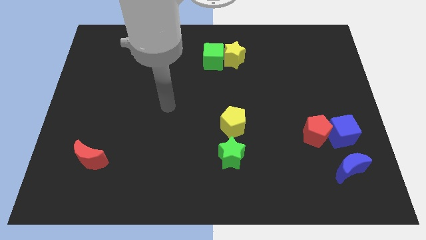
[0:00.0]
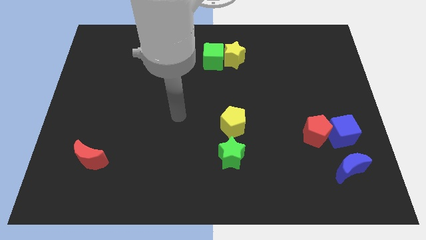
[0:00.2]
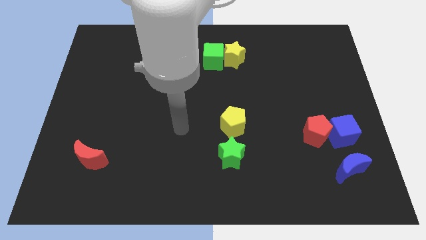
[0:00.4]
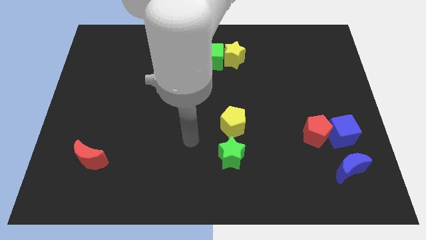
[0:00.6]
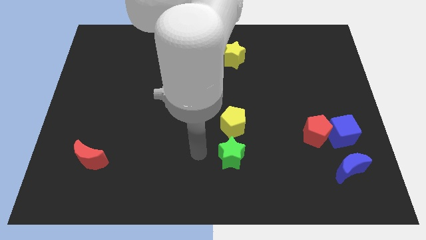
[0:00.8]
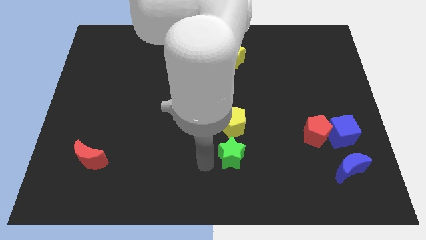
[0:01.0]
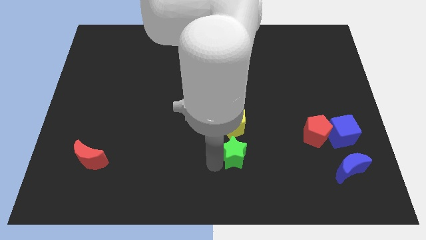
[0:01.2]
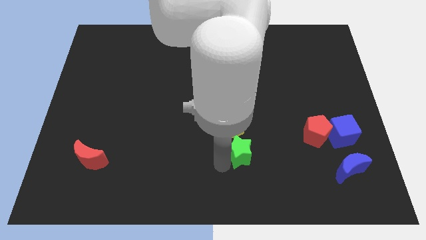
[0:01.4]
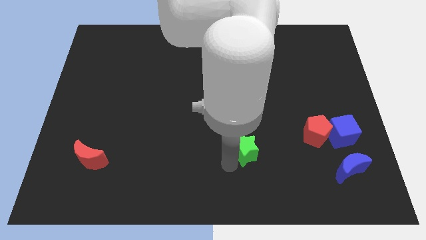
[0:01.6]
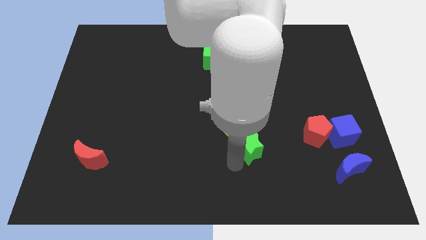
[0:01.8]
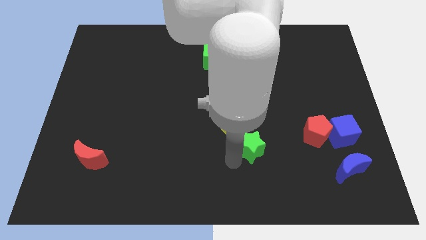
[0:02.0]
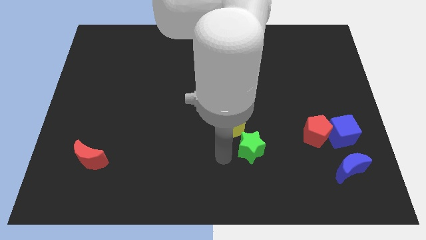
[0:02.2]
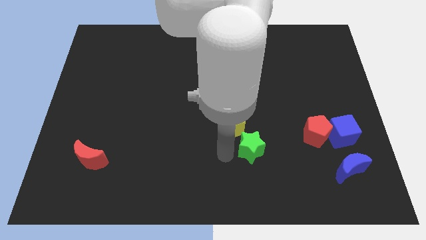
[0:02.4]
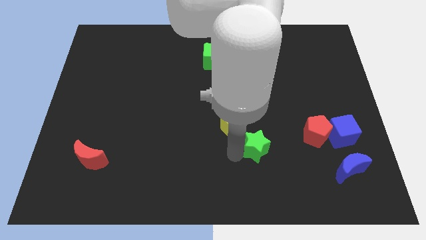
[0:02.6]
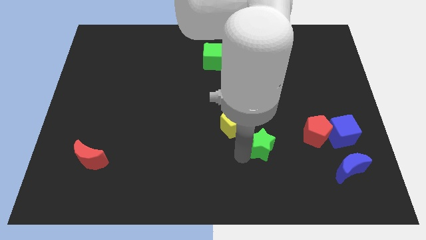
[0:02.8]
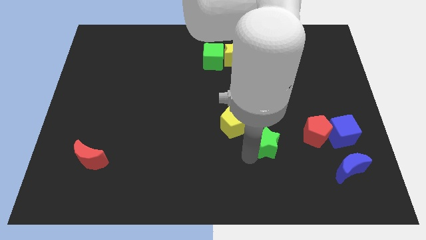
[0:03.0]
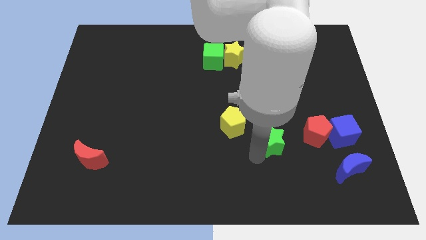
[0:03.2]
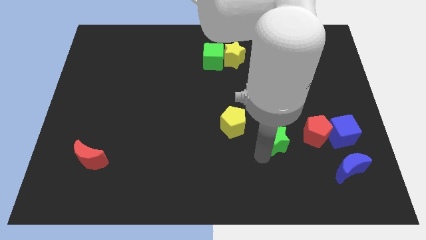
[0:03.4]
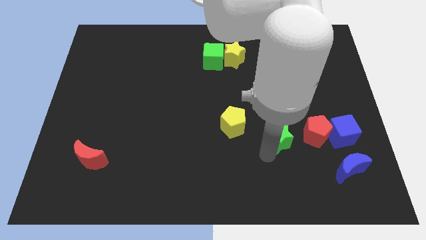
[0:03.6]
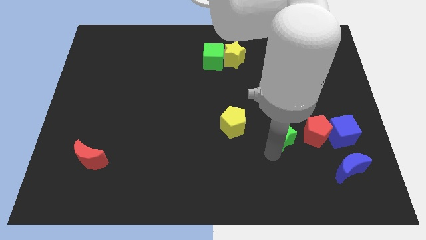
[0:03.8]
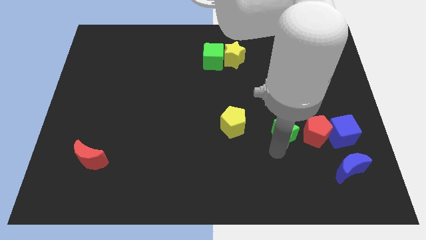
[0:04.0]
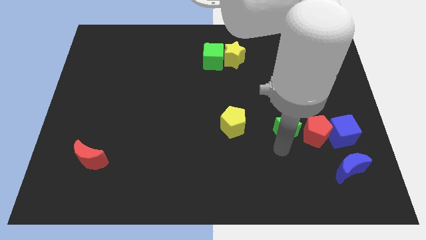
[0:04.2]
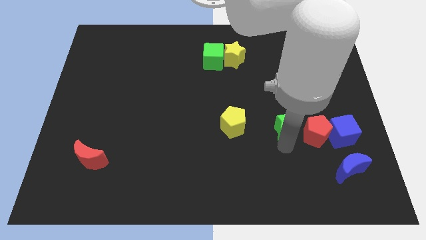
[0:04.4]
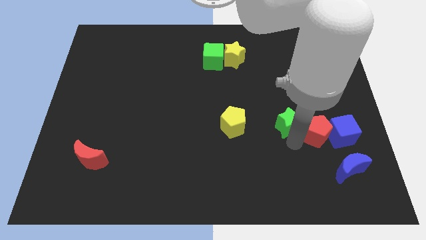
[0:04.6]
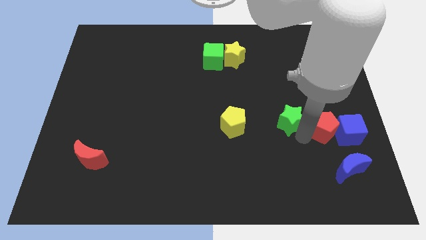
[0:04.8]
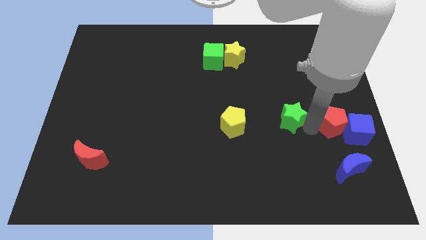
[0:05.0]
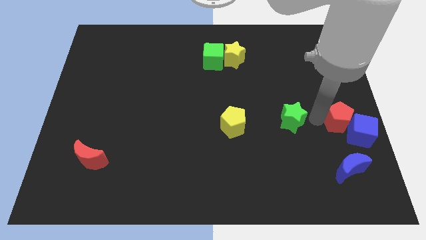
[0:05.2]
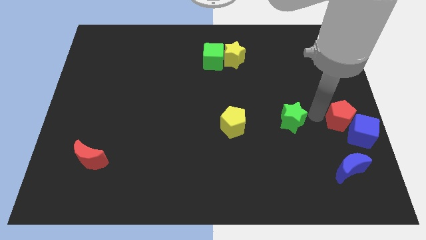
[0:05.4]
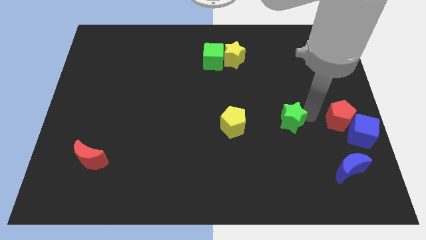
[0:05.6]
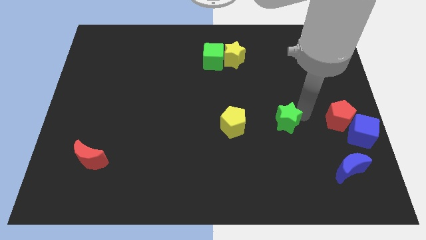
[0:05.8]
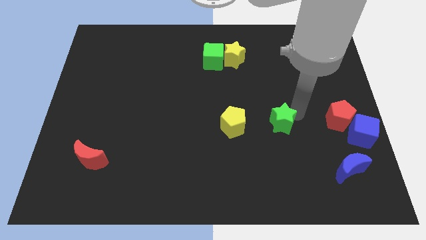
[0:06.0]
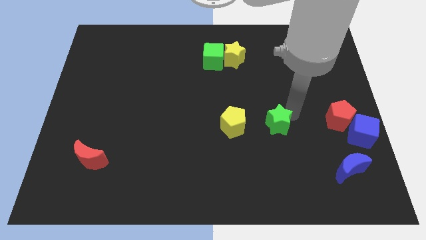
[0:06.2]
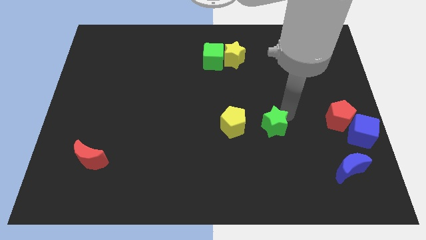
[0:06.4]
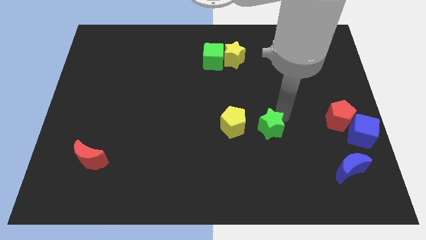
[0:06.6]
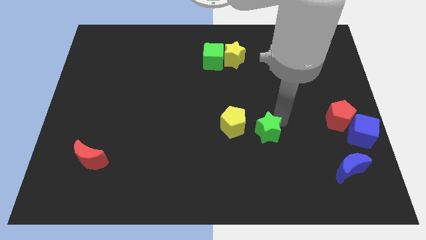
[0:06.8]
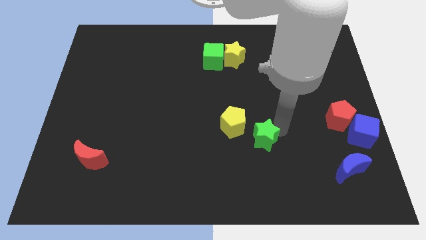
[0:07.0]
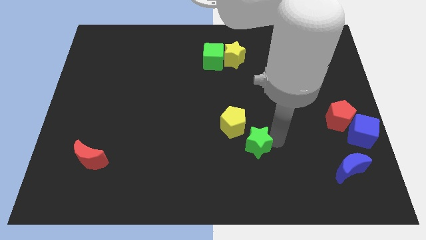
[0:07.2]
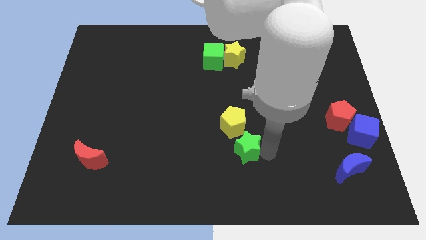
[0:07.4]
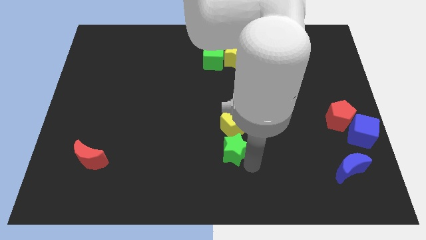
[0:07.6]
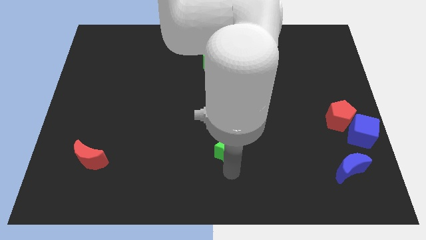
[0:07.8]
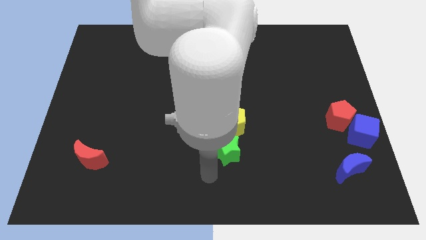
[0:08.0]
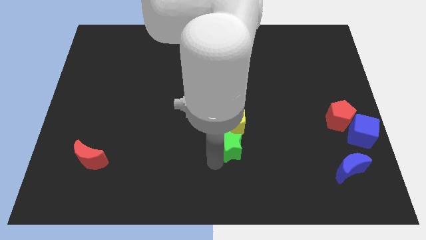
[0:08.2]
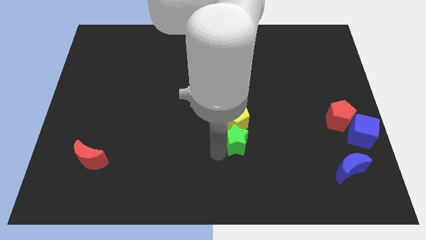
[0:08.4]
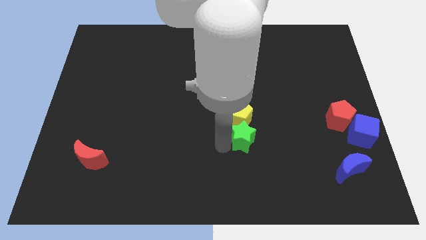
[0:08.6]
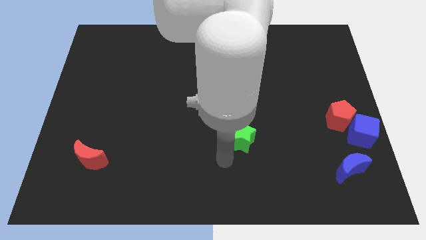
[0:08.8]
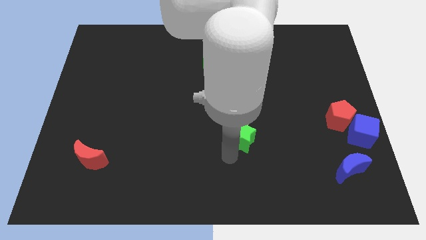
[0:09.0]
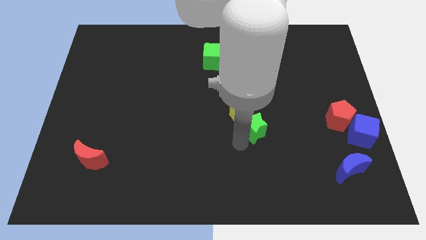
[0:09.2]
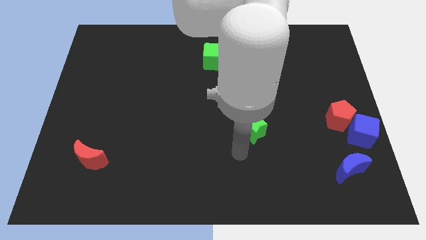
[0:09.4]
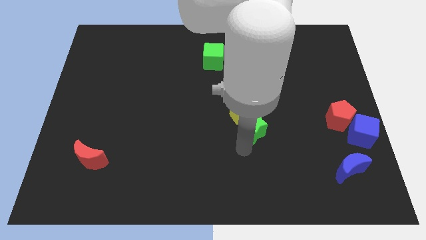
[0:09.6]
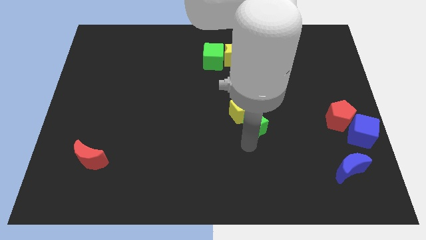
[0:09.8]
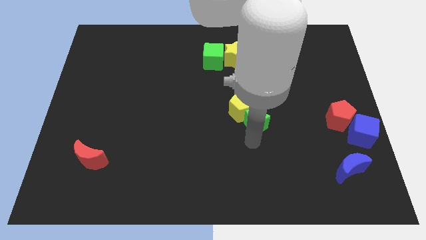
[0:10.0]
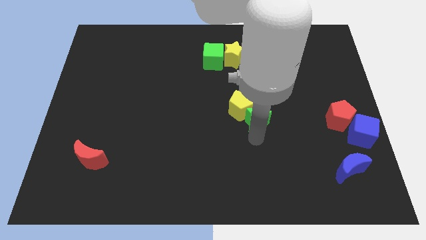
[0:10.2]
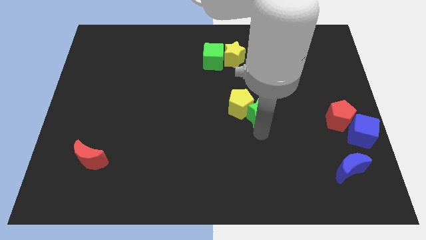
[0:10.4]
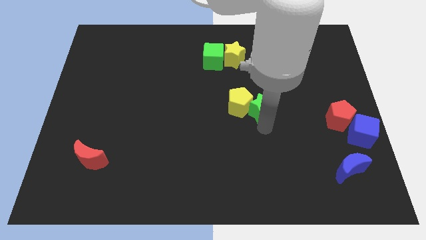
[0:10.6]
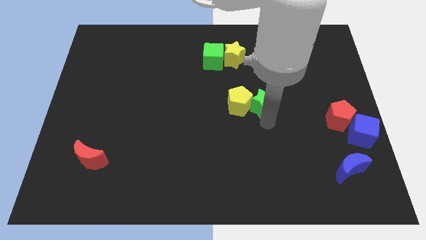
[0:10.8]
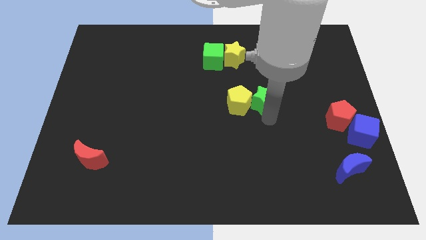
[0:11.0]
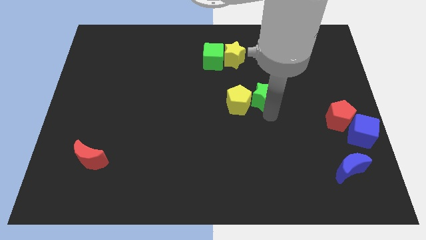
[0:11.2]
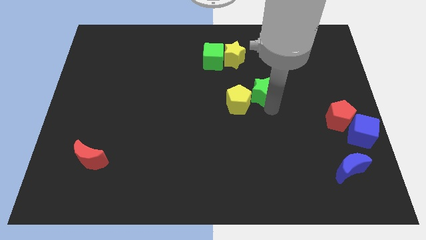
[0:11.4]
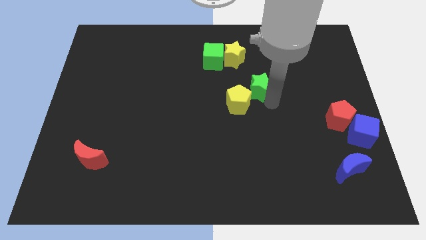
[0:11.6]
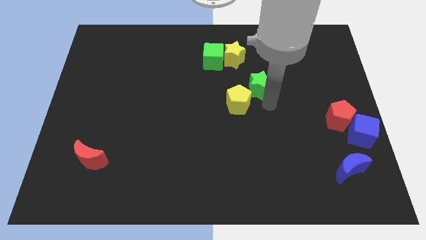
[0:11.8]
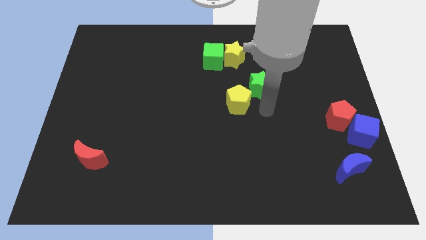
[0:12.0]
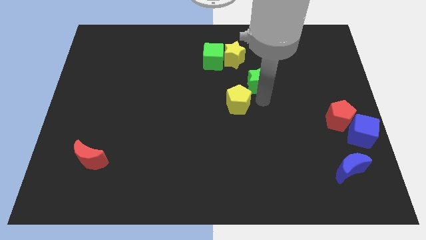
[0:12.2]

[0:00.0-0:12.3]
slide the green star diagonally down and to the right of the yellow star

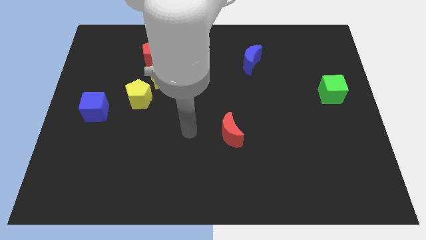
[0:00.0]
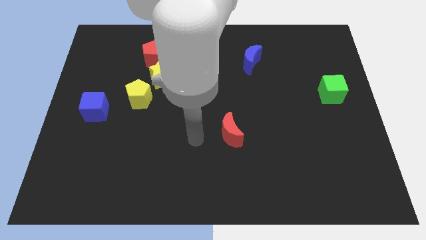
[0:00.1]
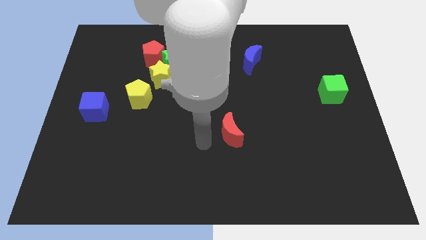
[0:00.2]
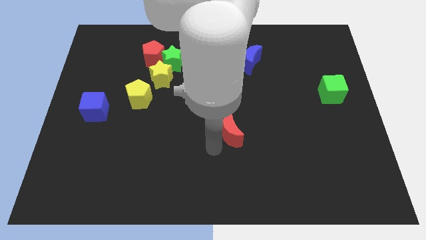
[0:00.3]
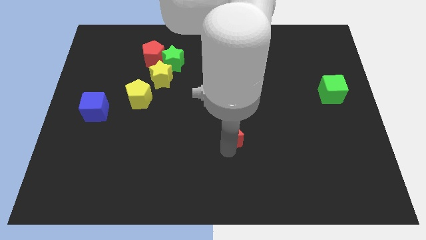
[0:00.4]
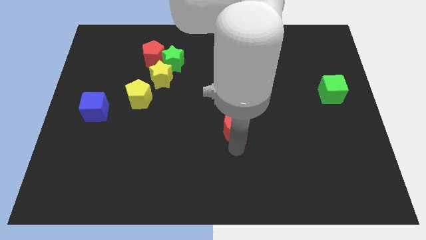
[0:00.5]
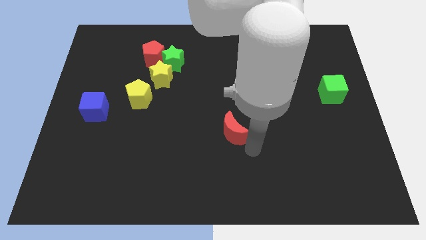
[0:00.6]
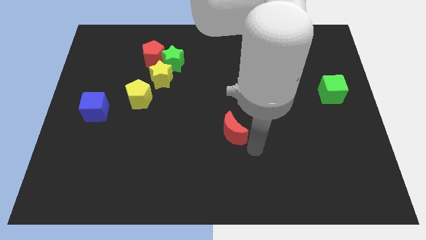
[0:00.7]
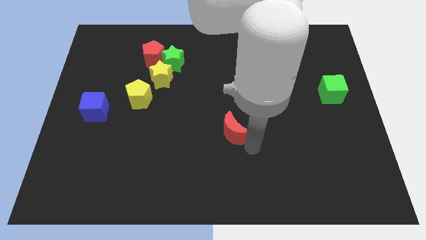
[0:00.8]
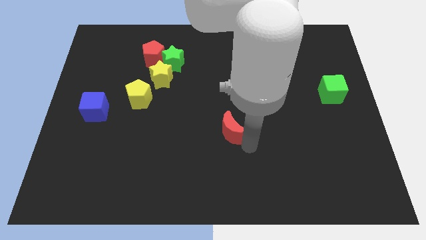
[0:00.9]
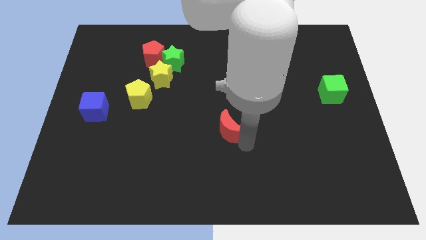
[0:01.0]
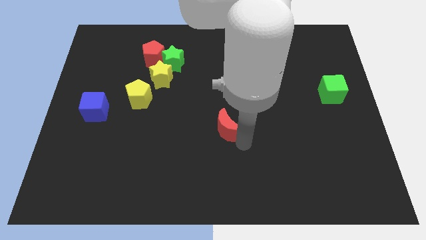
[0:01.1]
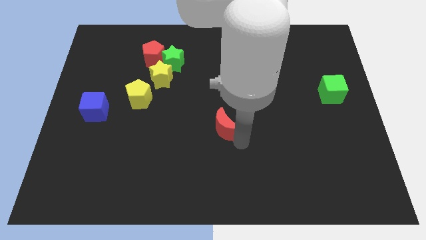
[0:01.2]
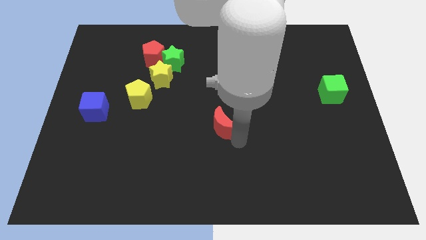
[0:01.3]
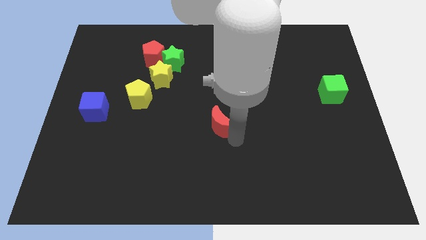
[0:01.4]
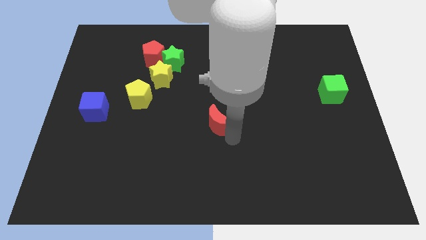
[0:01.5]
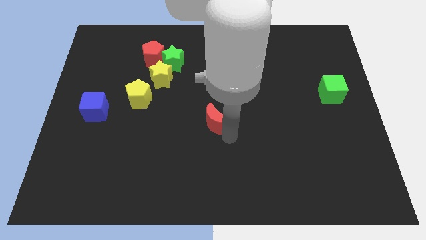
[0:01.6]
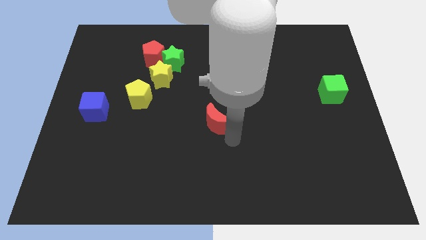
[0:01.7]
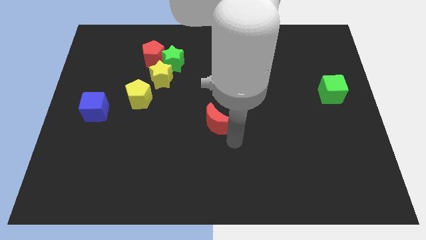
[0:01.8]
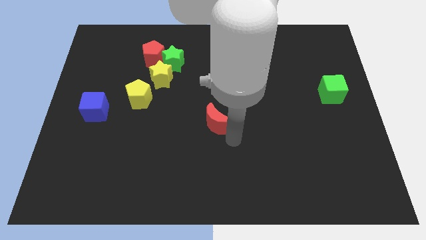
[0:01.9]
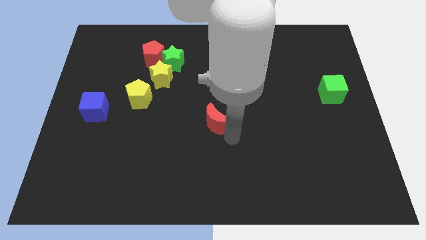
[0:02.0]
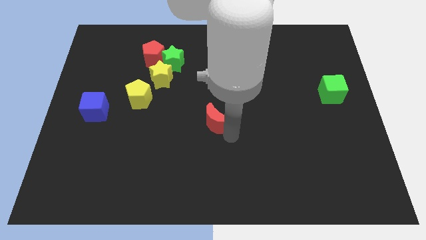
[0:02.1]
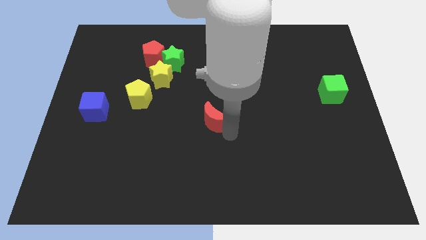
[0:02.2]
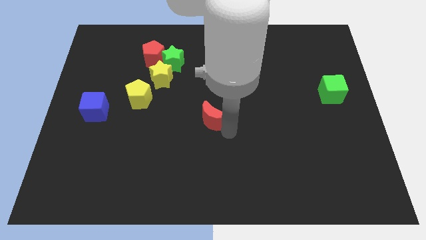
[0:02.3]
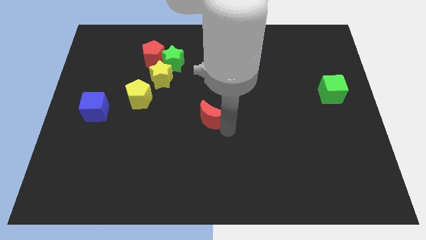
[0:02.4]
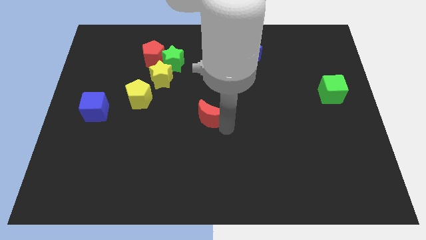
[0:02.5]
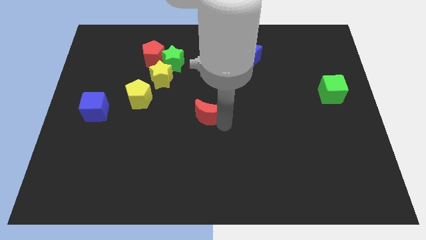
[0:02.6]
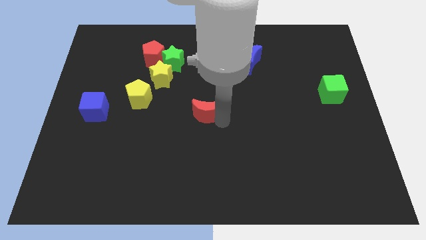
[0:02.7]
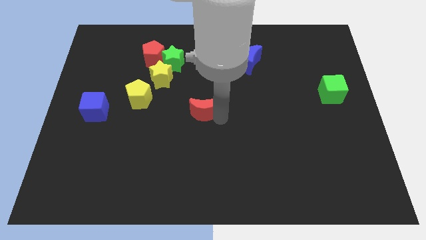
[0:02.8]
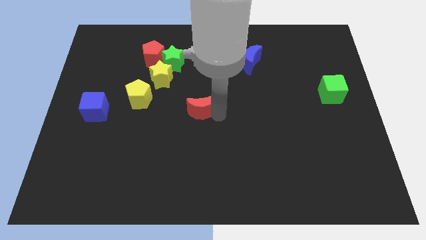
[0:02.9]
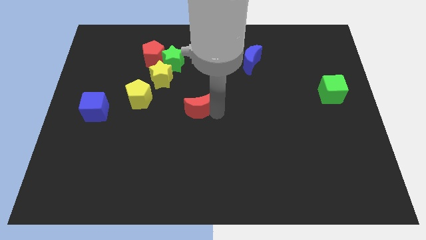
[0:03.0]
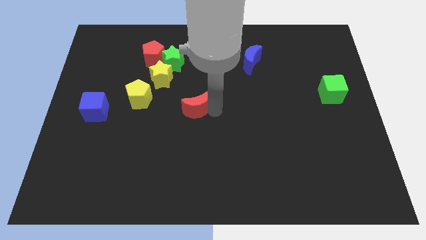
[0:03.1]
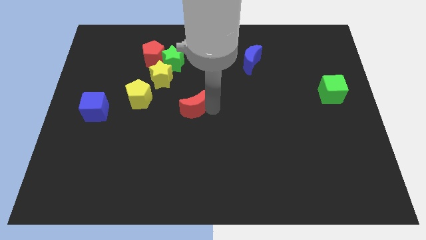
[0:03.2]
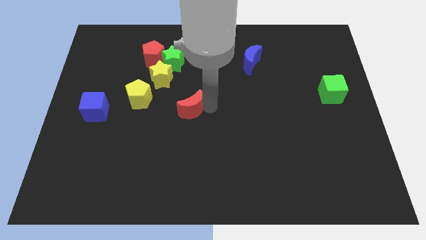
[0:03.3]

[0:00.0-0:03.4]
push the red moon to the bottom right of the yellow star
